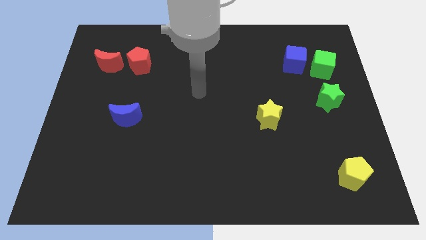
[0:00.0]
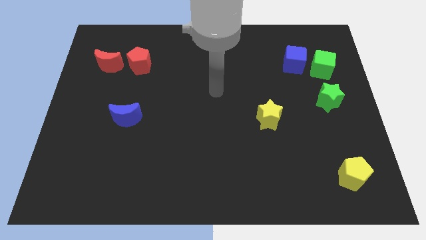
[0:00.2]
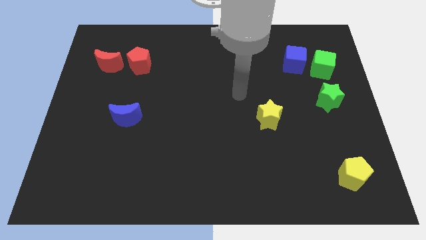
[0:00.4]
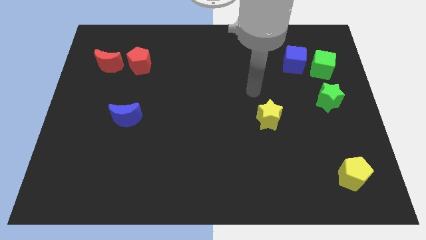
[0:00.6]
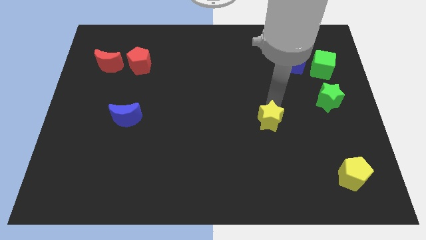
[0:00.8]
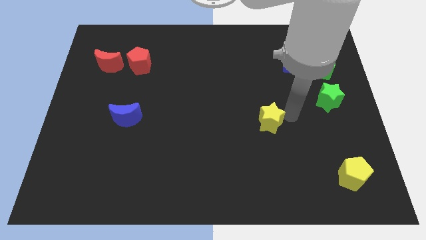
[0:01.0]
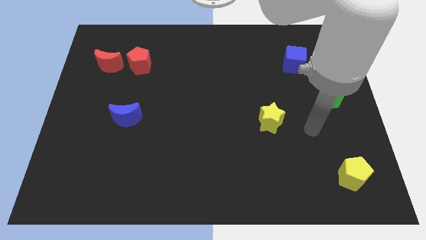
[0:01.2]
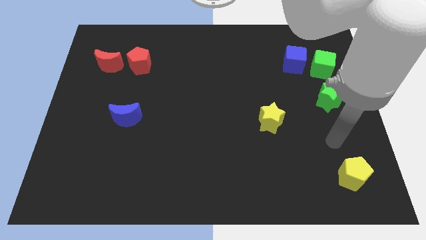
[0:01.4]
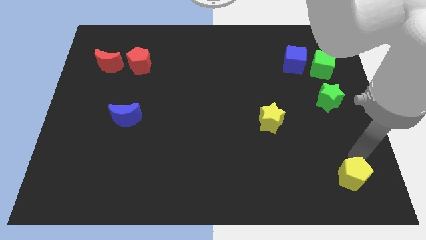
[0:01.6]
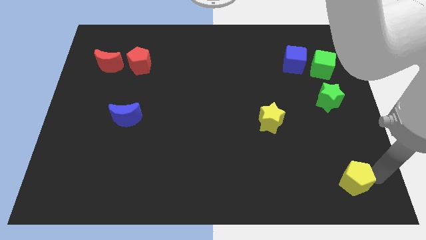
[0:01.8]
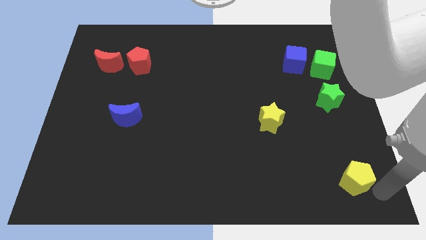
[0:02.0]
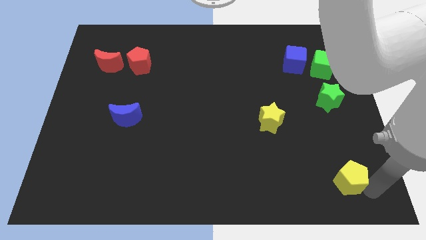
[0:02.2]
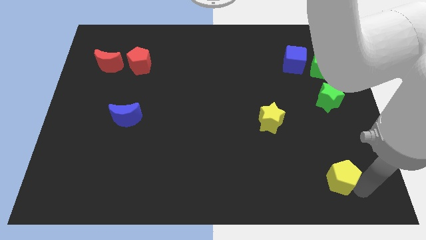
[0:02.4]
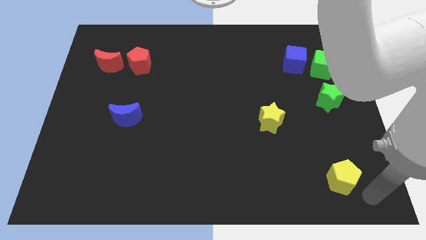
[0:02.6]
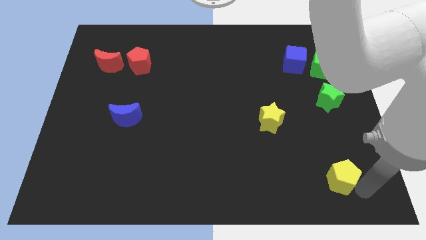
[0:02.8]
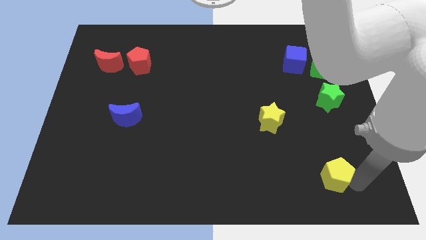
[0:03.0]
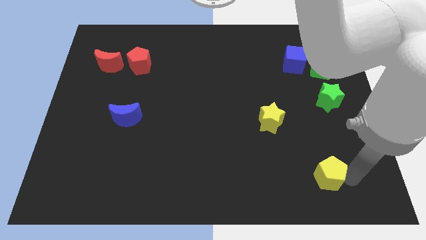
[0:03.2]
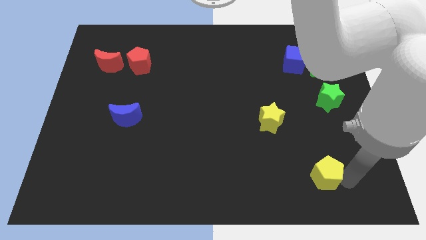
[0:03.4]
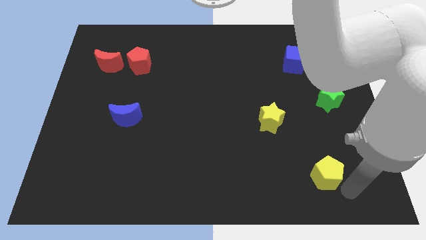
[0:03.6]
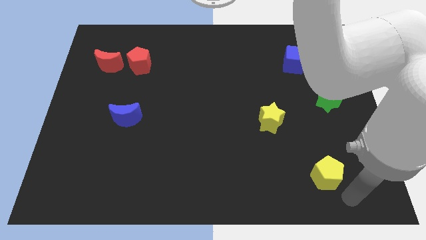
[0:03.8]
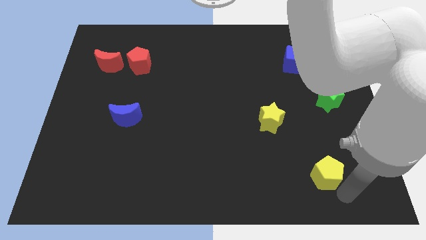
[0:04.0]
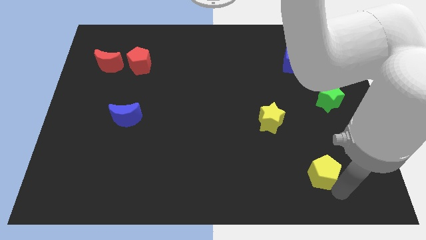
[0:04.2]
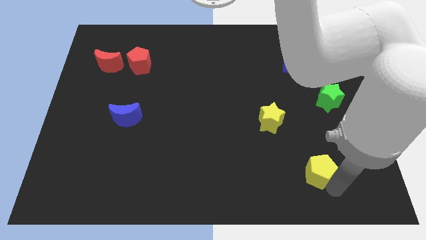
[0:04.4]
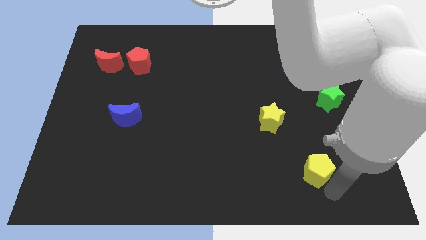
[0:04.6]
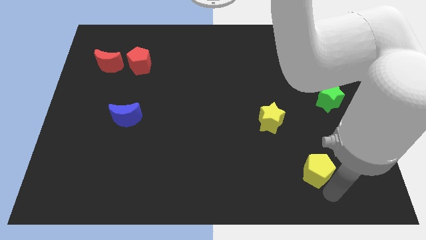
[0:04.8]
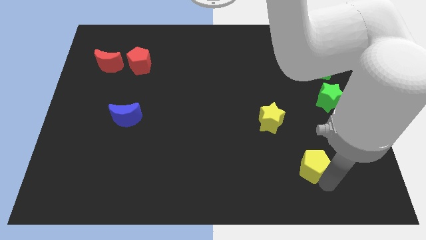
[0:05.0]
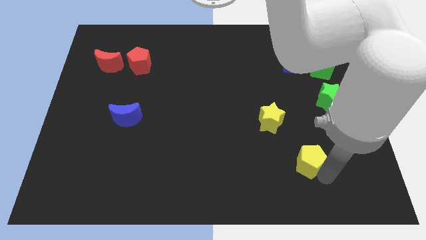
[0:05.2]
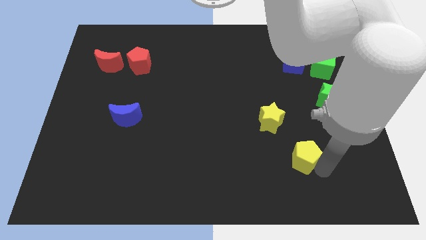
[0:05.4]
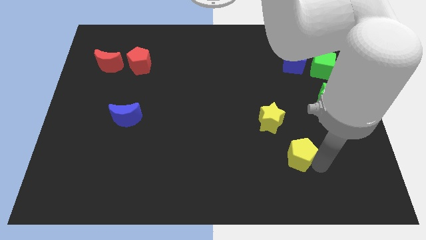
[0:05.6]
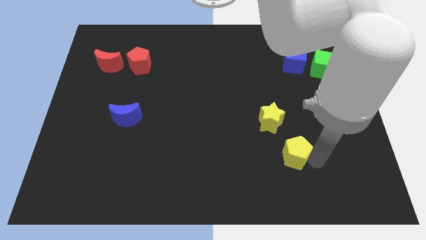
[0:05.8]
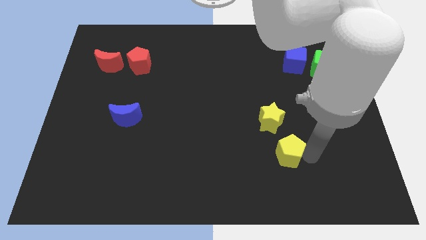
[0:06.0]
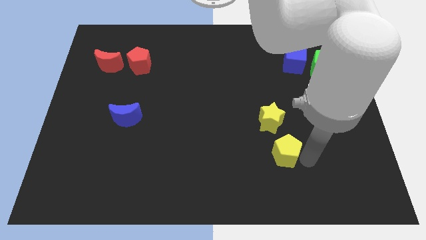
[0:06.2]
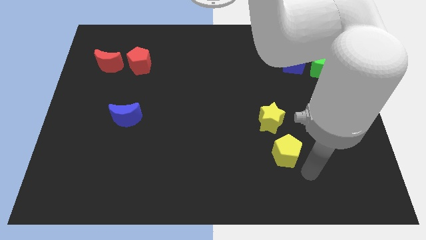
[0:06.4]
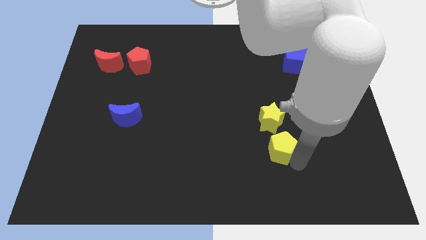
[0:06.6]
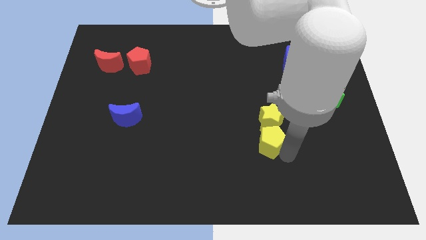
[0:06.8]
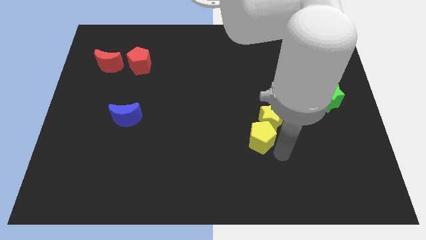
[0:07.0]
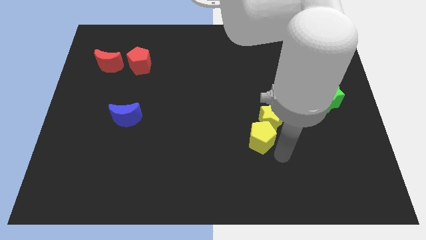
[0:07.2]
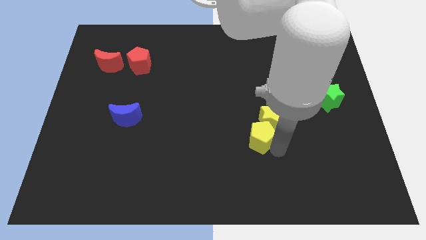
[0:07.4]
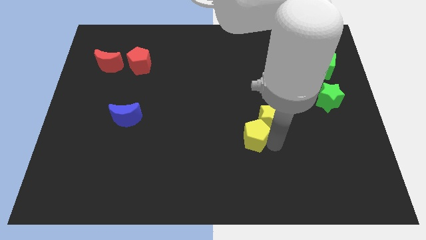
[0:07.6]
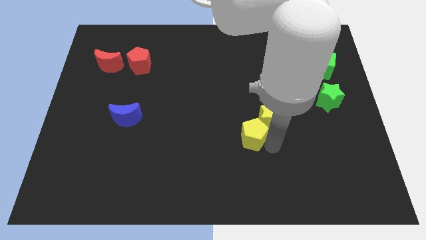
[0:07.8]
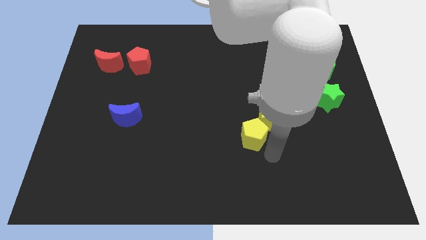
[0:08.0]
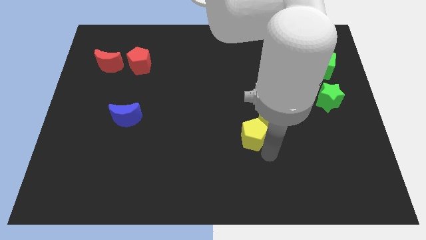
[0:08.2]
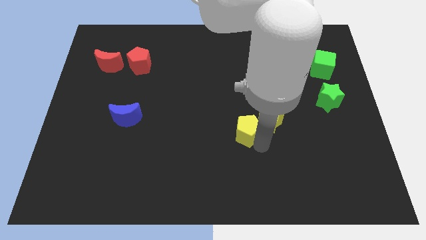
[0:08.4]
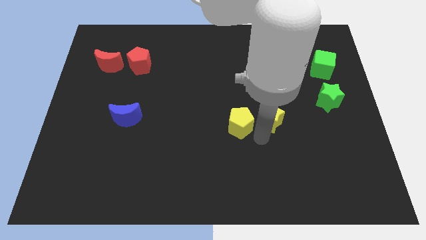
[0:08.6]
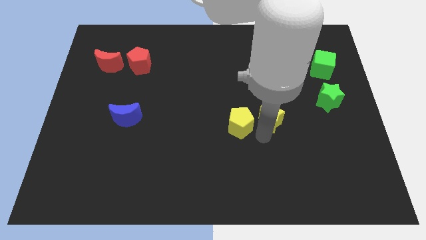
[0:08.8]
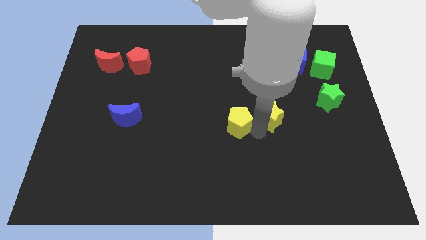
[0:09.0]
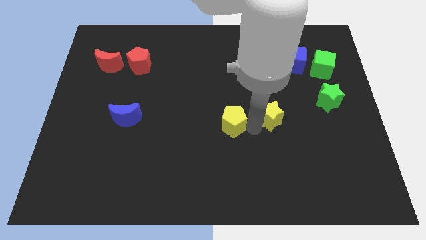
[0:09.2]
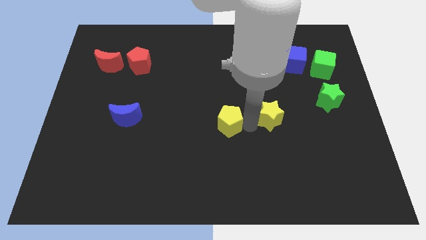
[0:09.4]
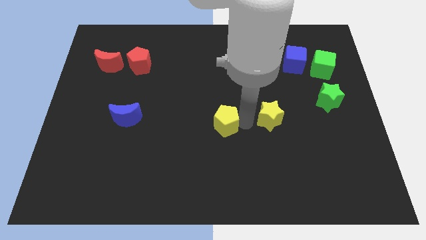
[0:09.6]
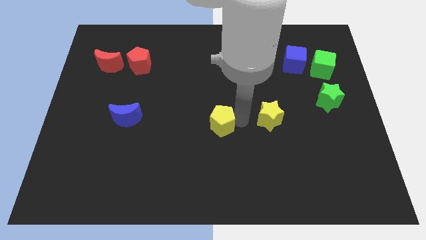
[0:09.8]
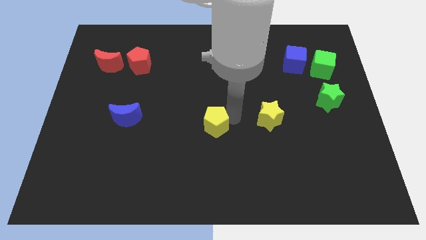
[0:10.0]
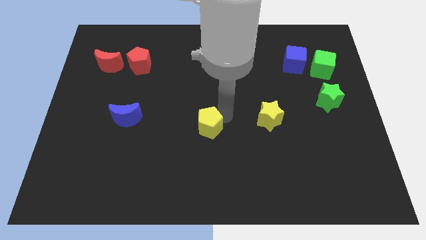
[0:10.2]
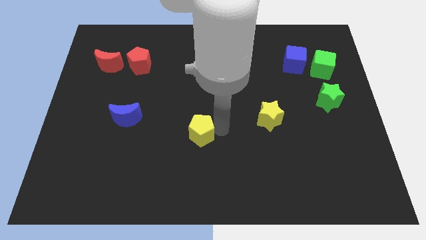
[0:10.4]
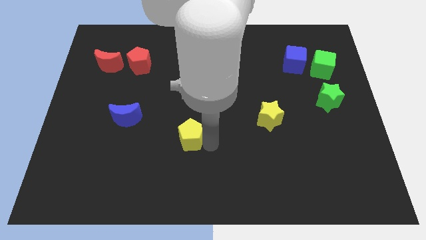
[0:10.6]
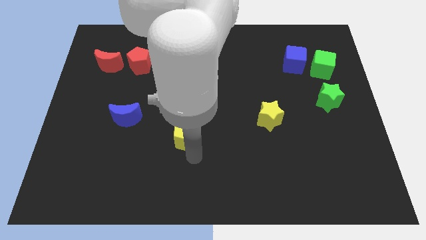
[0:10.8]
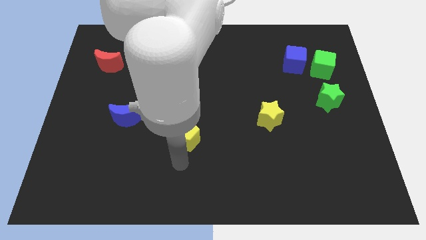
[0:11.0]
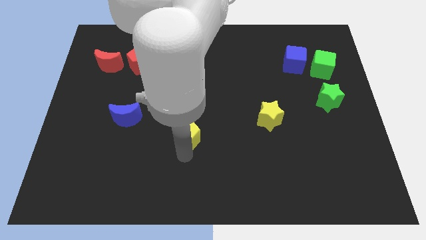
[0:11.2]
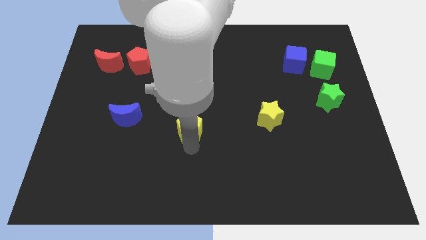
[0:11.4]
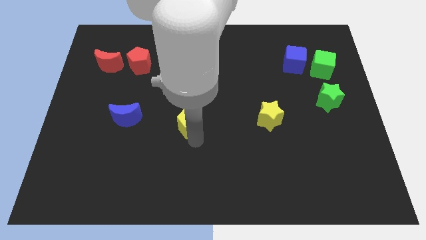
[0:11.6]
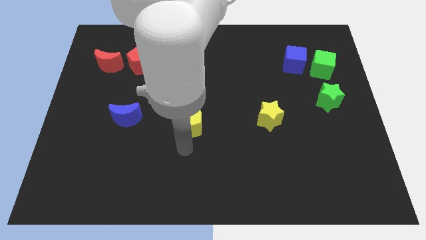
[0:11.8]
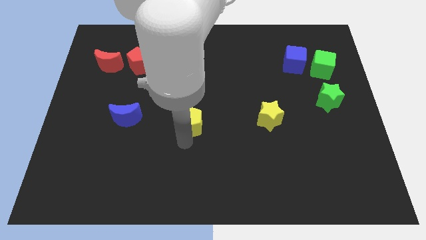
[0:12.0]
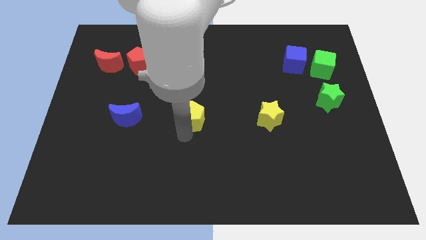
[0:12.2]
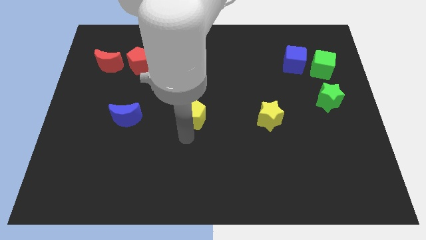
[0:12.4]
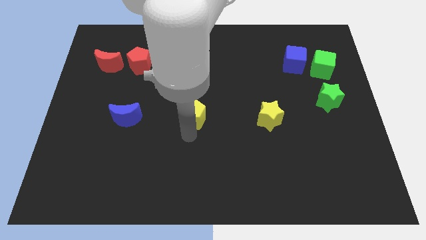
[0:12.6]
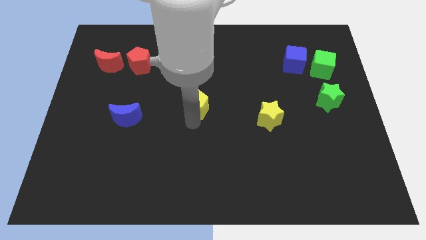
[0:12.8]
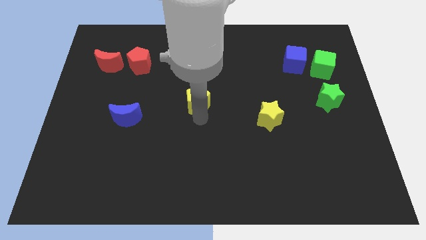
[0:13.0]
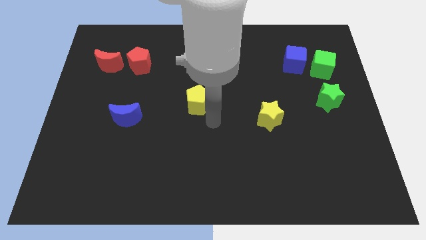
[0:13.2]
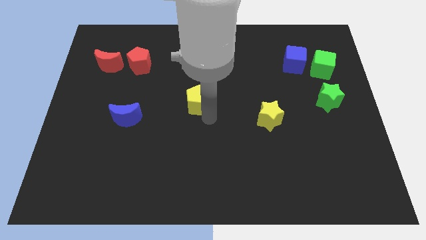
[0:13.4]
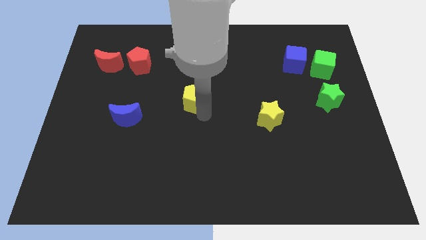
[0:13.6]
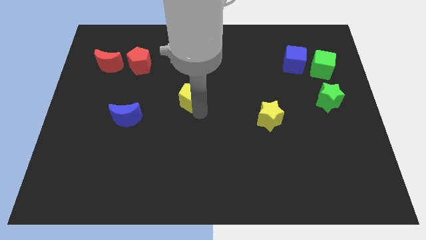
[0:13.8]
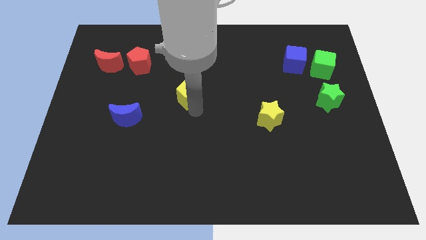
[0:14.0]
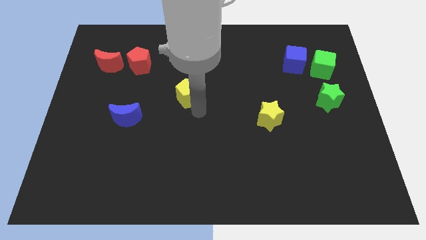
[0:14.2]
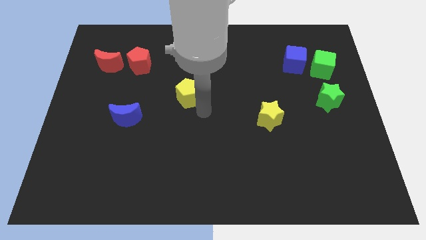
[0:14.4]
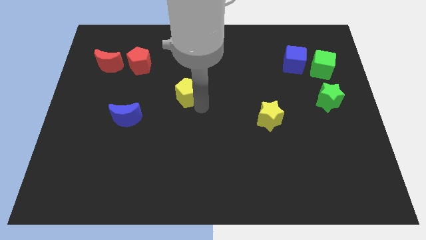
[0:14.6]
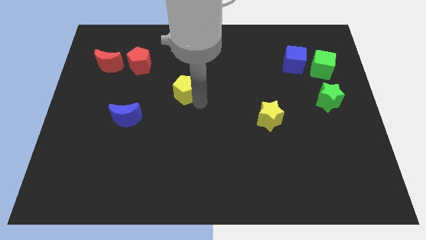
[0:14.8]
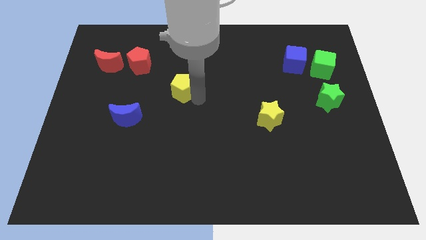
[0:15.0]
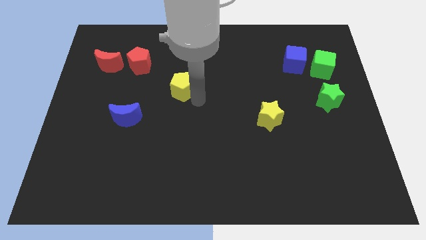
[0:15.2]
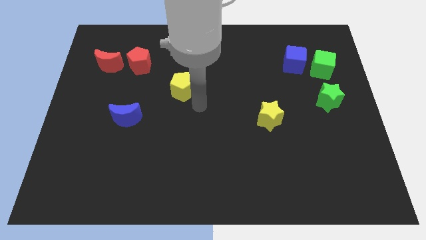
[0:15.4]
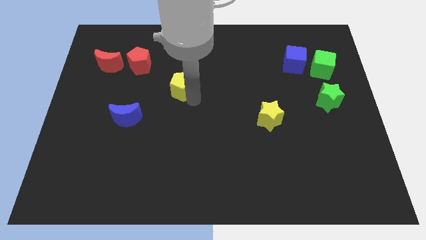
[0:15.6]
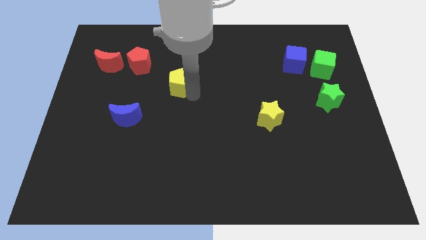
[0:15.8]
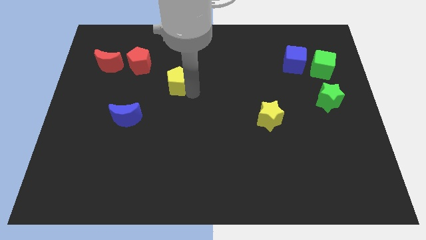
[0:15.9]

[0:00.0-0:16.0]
slide the yellow pentagon to the bottom right side of the red pentagon
